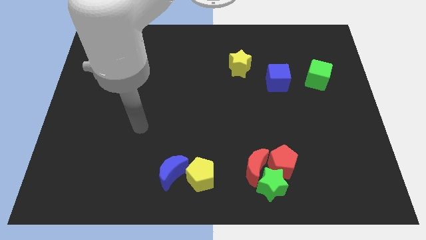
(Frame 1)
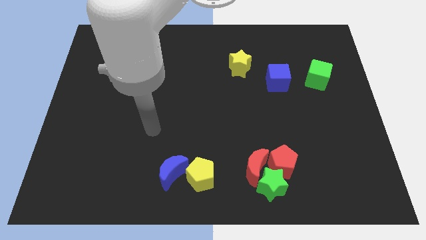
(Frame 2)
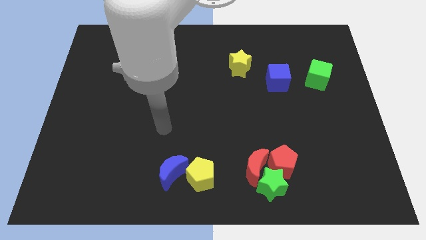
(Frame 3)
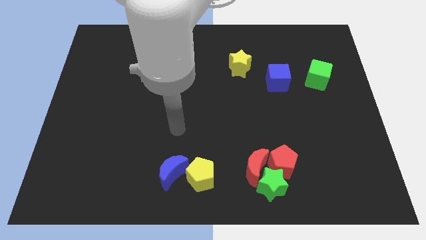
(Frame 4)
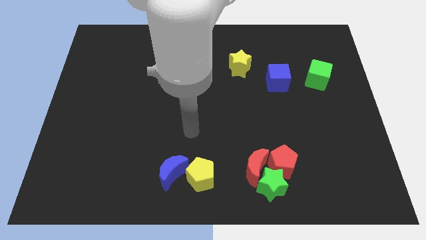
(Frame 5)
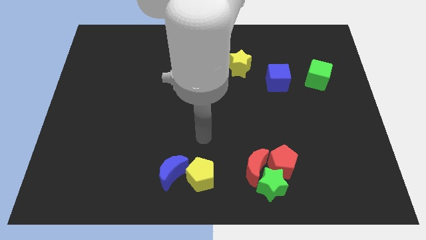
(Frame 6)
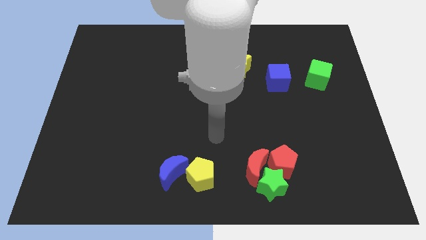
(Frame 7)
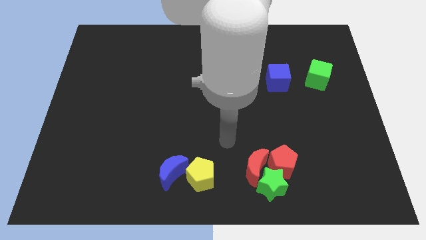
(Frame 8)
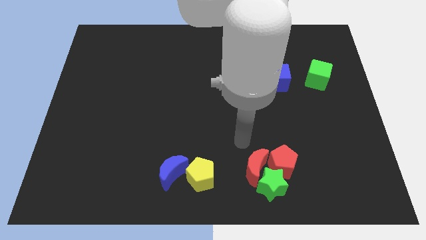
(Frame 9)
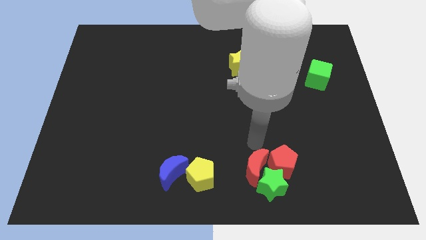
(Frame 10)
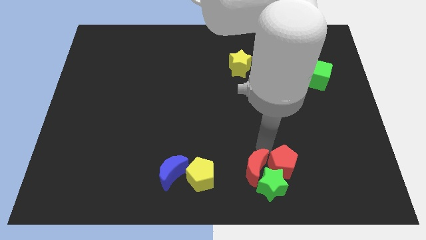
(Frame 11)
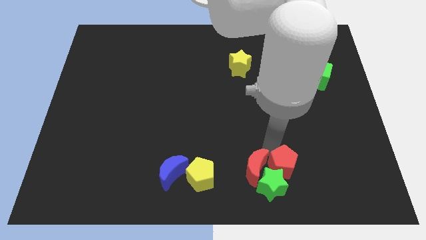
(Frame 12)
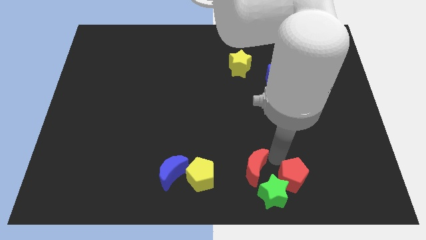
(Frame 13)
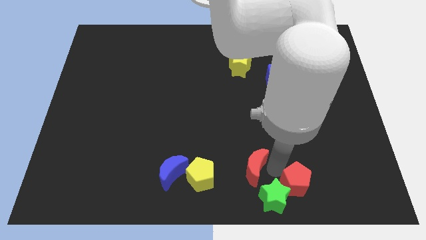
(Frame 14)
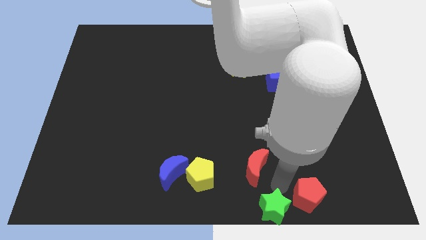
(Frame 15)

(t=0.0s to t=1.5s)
pull the red moon apart from the green star and red pentagon

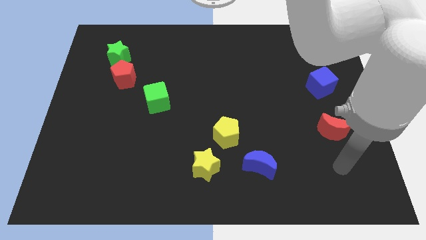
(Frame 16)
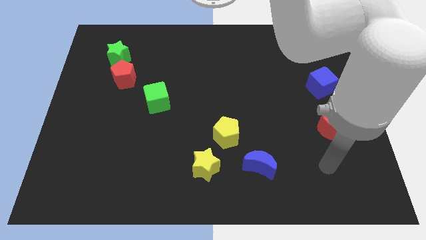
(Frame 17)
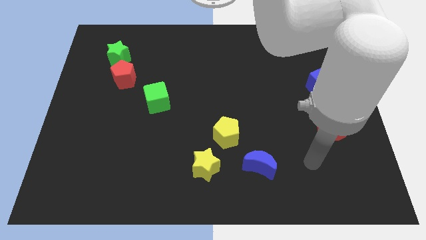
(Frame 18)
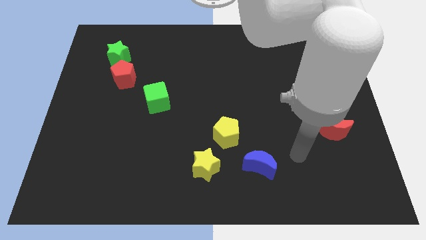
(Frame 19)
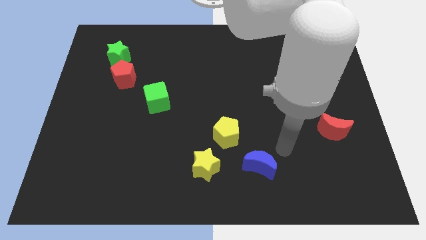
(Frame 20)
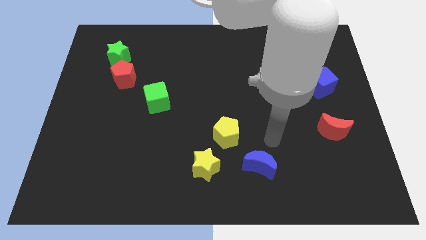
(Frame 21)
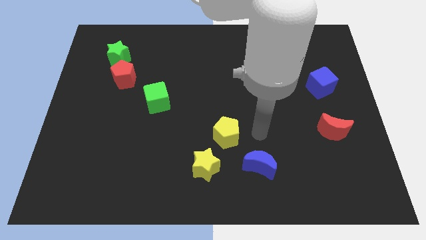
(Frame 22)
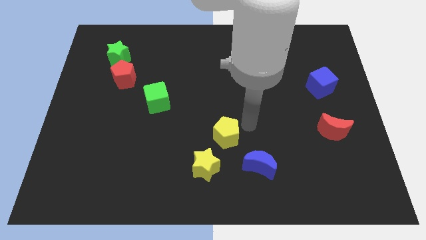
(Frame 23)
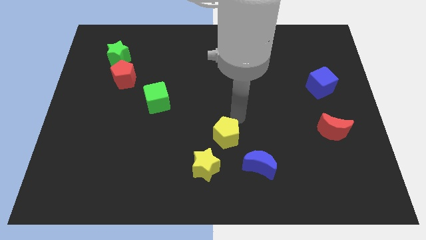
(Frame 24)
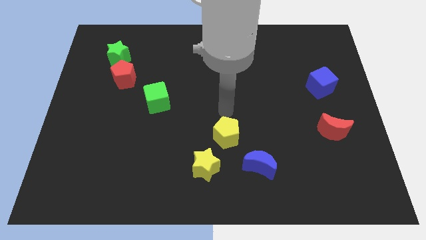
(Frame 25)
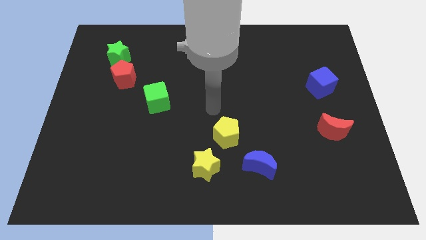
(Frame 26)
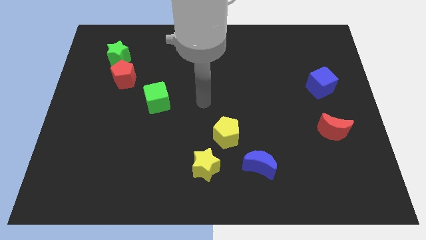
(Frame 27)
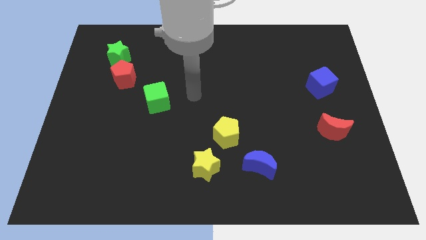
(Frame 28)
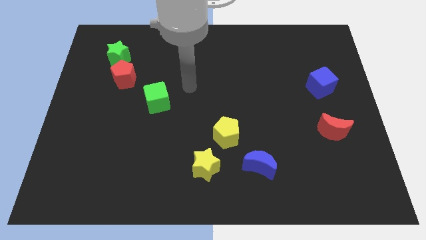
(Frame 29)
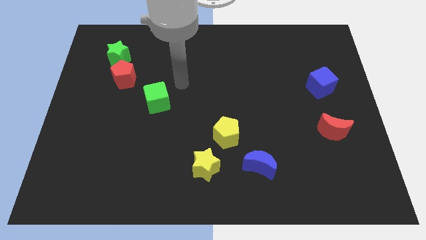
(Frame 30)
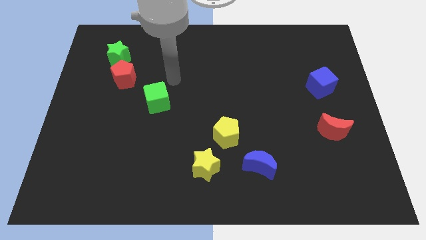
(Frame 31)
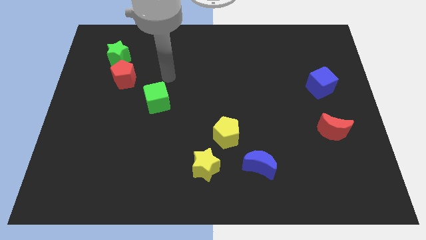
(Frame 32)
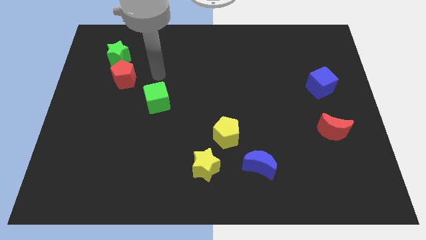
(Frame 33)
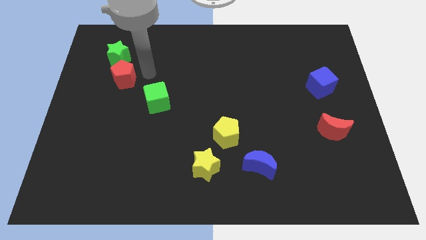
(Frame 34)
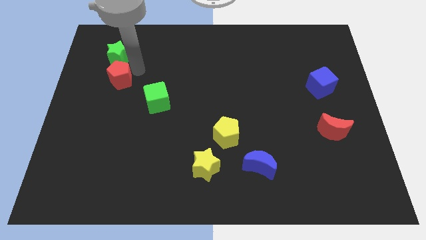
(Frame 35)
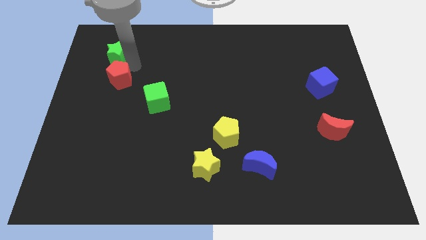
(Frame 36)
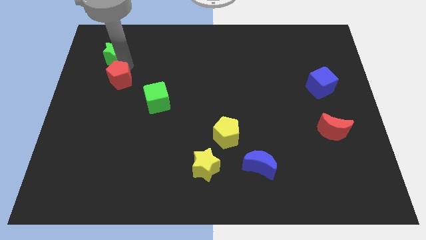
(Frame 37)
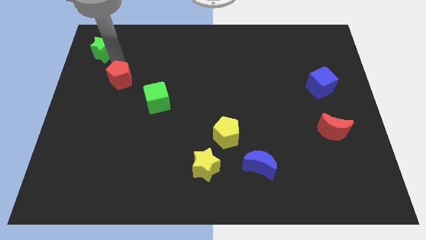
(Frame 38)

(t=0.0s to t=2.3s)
separate the red pentagon from the green star

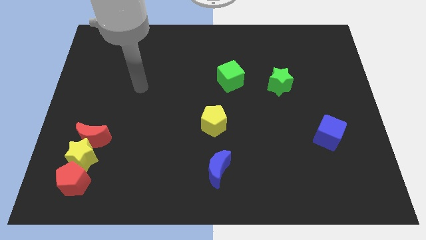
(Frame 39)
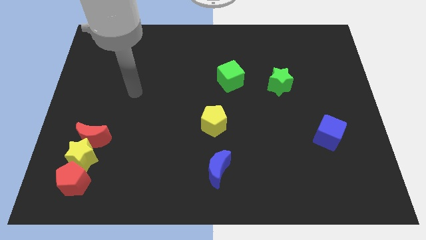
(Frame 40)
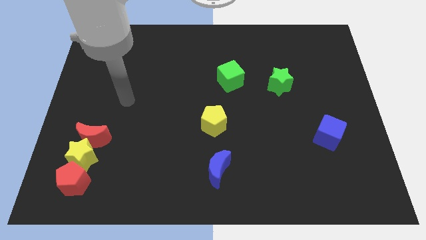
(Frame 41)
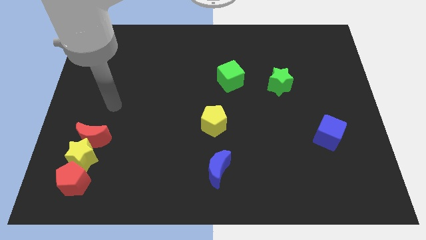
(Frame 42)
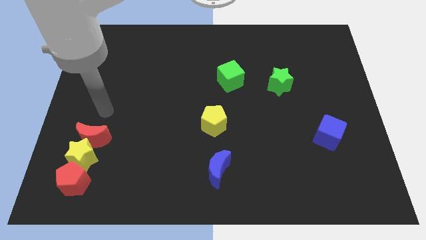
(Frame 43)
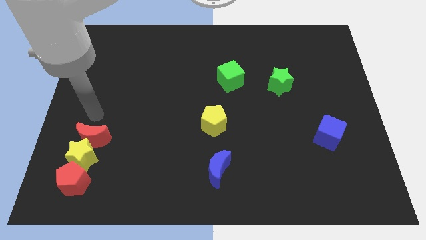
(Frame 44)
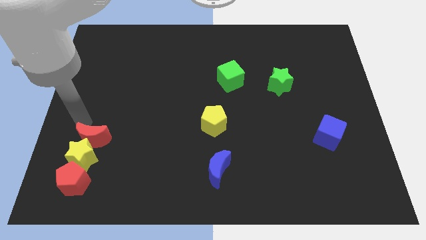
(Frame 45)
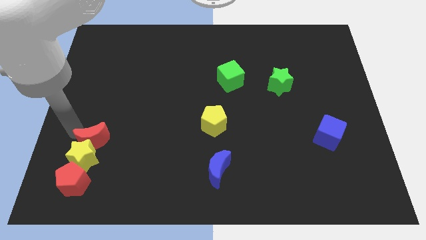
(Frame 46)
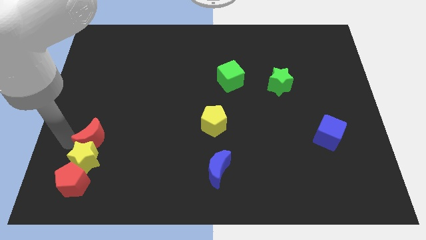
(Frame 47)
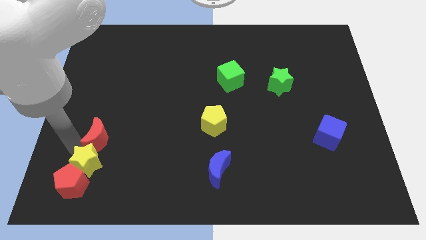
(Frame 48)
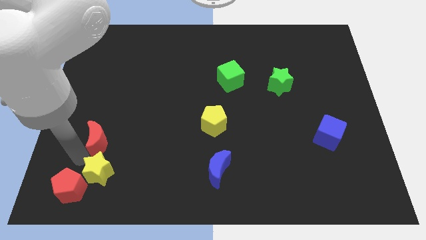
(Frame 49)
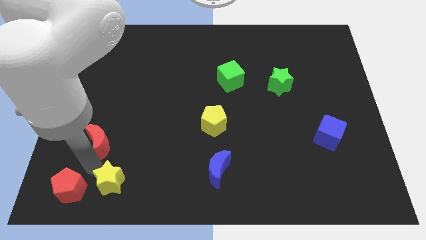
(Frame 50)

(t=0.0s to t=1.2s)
separate the red moon from the yellow star

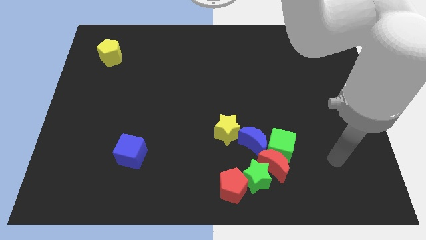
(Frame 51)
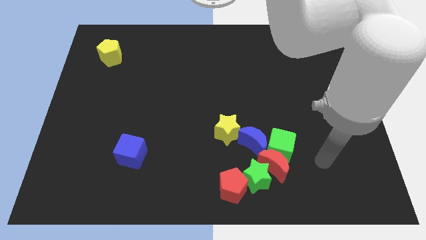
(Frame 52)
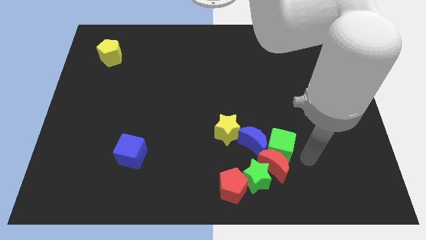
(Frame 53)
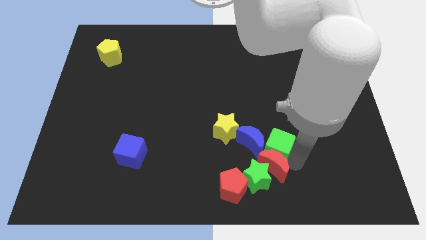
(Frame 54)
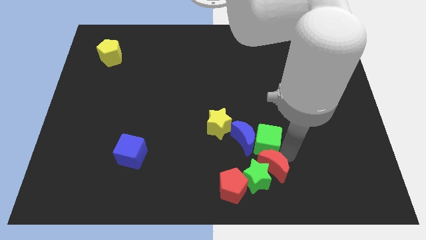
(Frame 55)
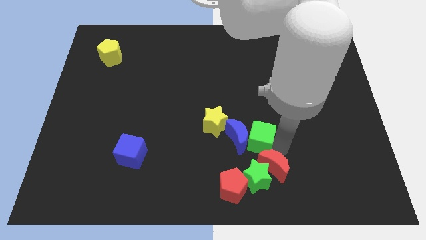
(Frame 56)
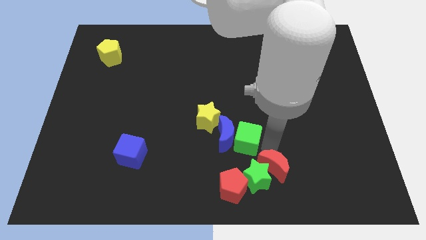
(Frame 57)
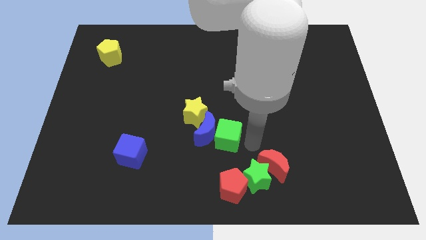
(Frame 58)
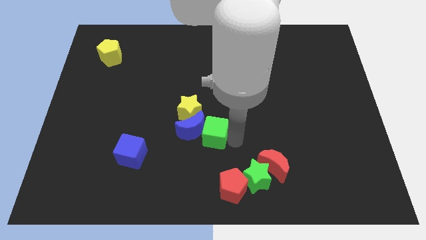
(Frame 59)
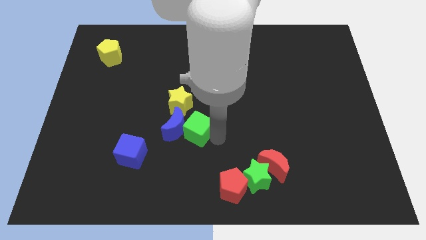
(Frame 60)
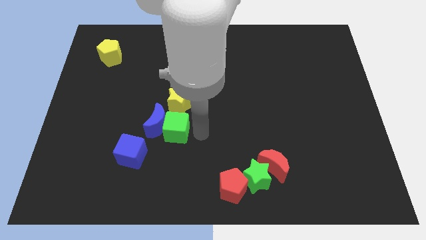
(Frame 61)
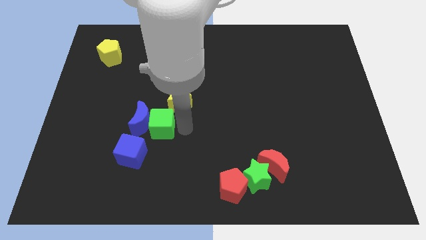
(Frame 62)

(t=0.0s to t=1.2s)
move the yellow star away from the blue moon

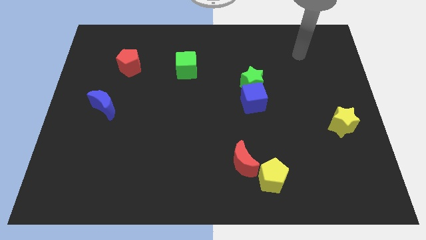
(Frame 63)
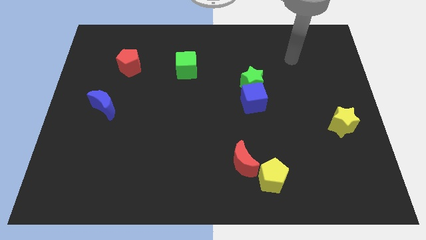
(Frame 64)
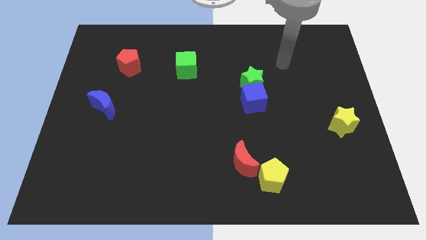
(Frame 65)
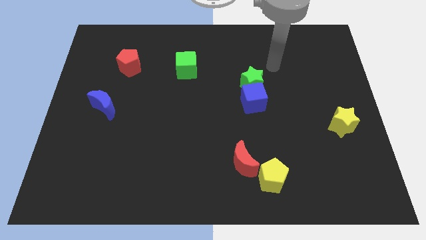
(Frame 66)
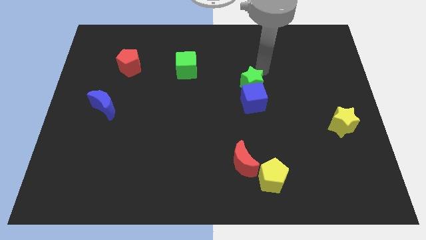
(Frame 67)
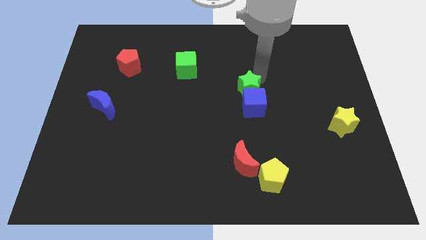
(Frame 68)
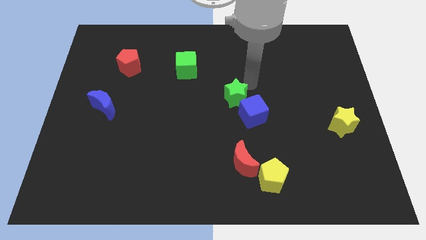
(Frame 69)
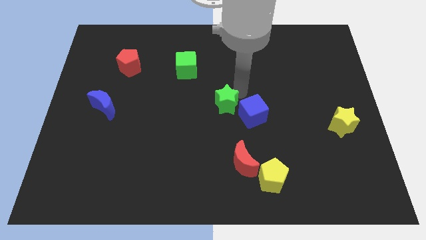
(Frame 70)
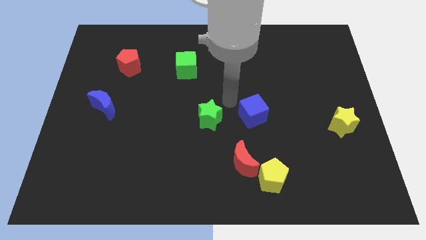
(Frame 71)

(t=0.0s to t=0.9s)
pull the blue cube apart from the green star

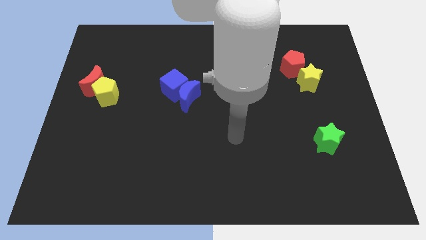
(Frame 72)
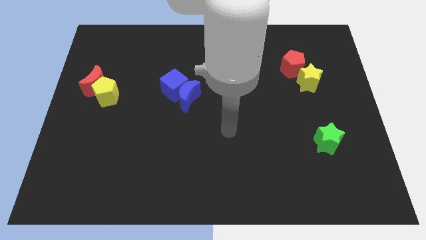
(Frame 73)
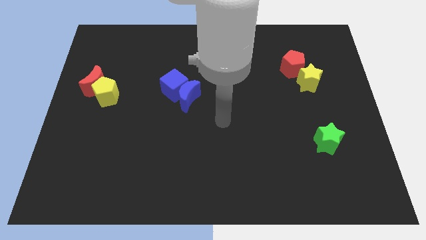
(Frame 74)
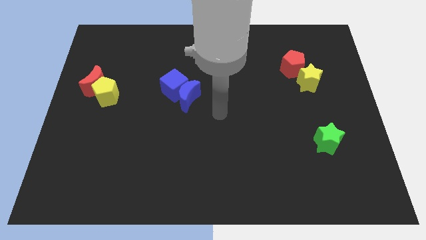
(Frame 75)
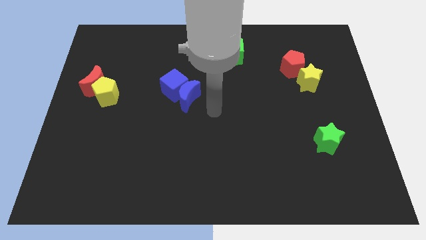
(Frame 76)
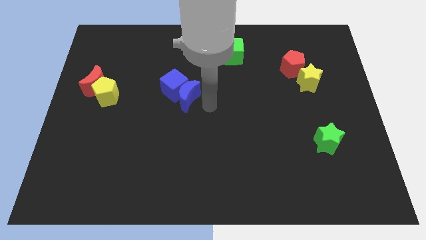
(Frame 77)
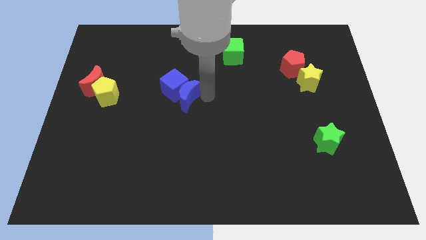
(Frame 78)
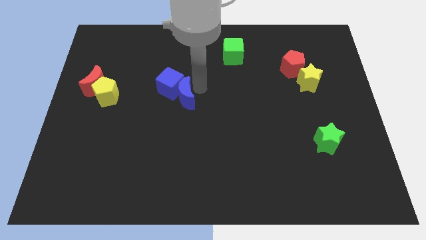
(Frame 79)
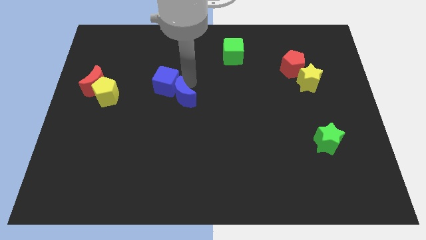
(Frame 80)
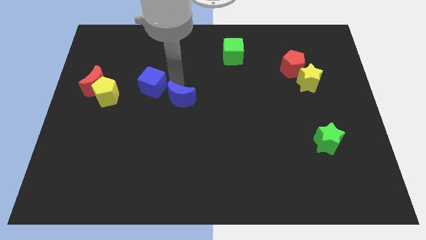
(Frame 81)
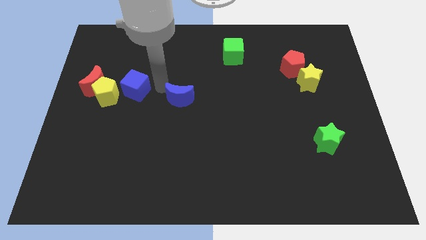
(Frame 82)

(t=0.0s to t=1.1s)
move the blue moon away from the blue cube

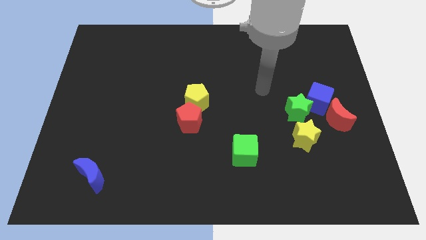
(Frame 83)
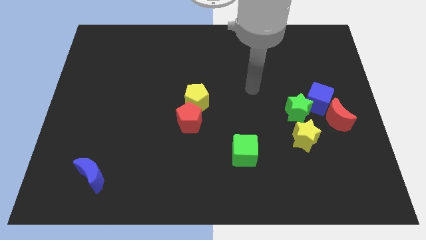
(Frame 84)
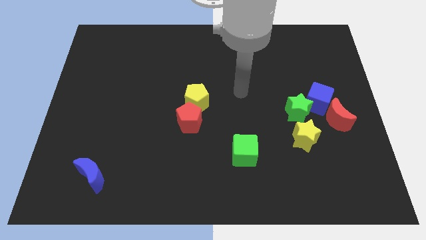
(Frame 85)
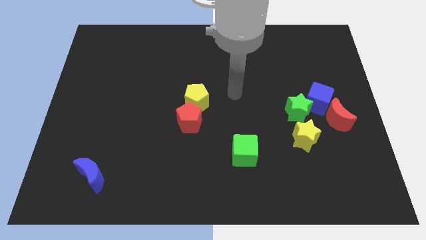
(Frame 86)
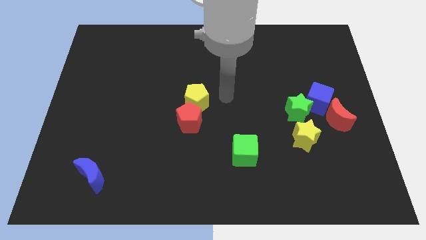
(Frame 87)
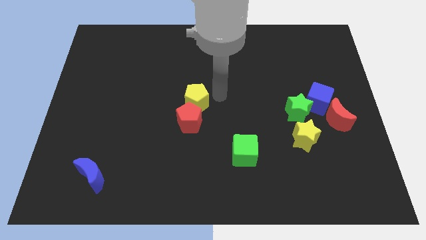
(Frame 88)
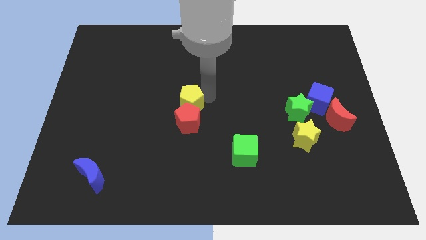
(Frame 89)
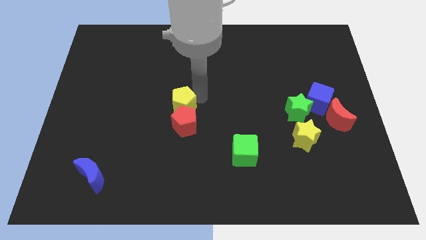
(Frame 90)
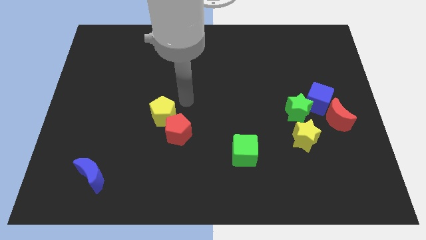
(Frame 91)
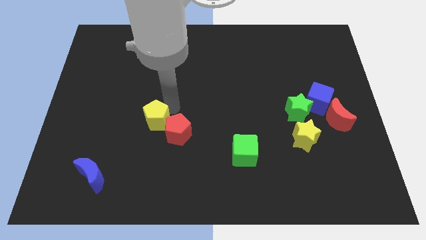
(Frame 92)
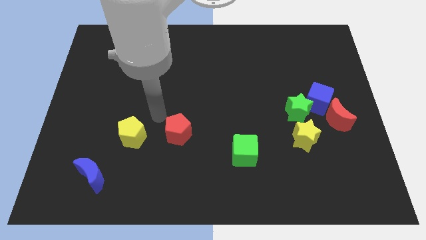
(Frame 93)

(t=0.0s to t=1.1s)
pull the red pentagon apart from the yellow pentagon
